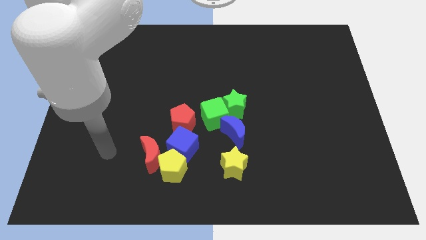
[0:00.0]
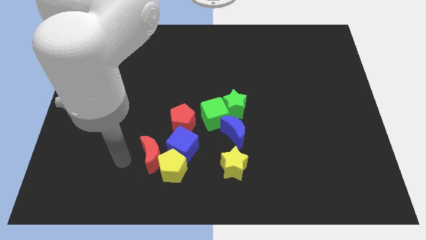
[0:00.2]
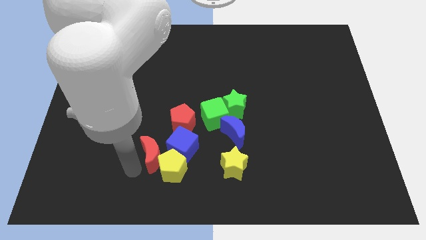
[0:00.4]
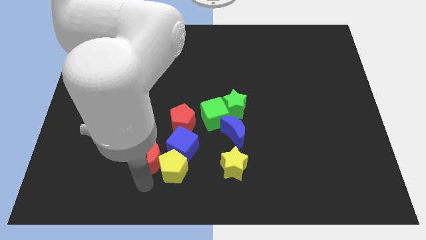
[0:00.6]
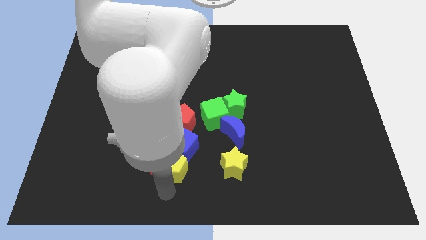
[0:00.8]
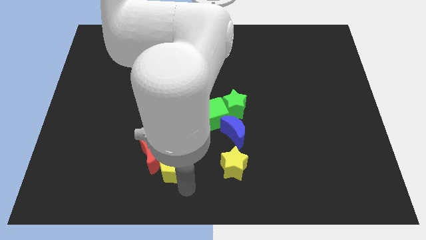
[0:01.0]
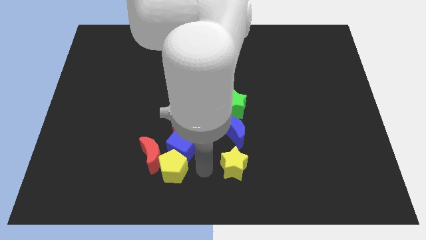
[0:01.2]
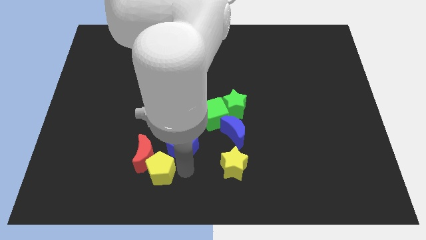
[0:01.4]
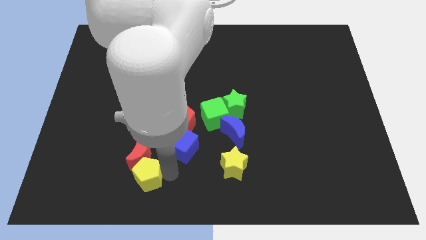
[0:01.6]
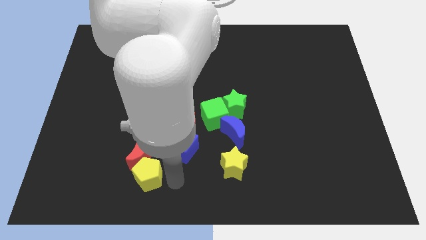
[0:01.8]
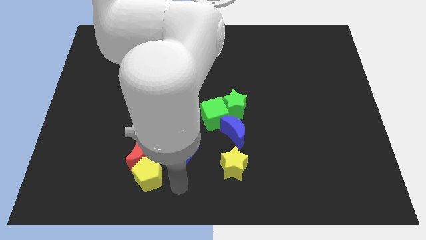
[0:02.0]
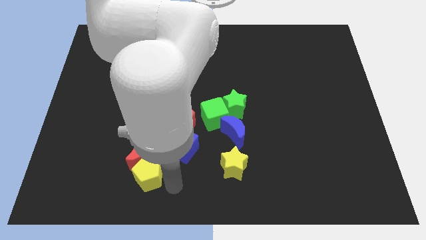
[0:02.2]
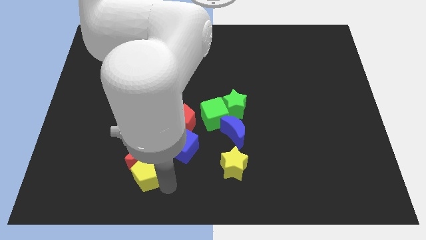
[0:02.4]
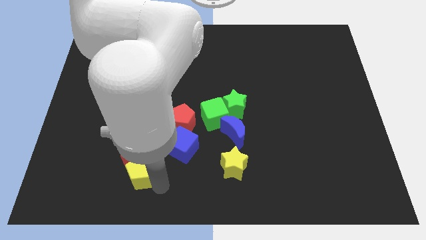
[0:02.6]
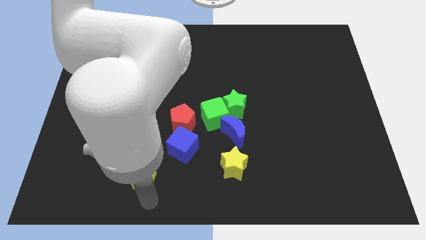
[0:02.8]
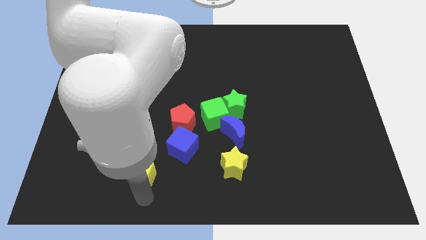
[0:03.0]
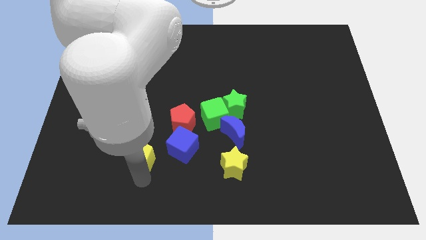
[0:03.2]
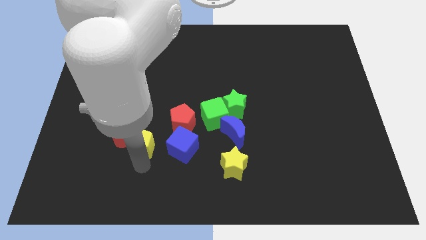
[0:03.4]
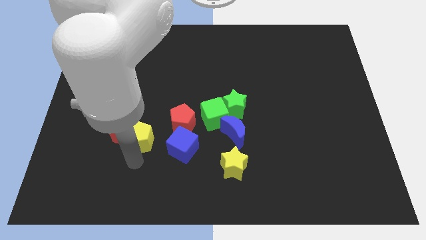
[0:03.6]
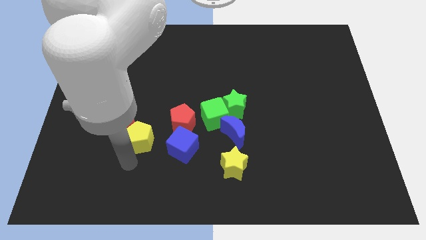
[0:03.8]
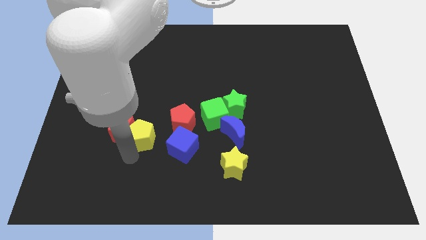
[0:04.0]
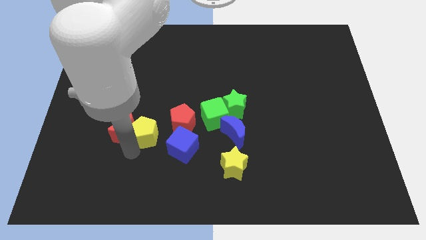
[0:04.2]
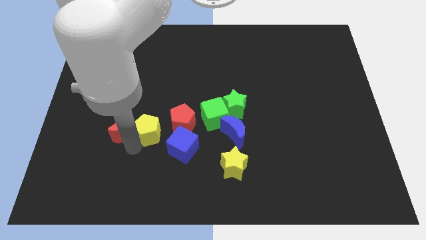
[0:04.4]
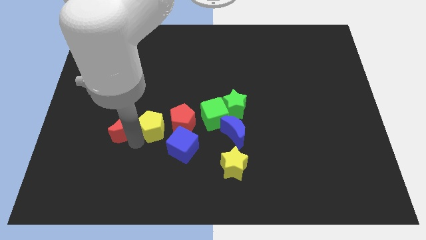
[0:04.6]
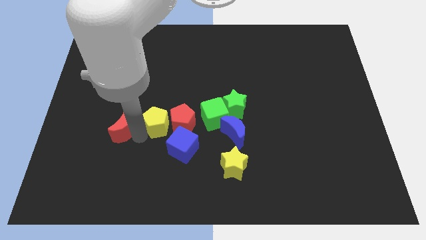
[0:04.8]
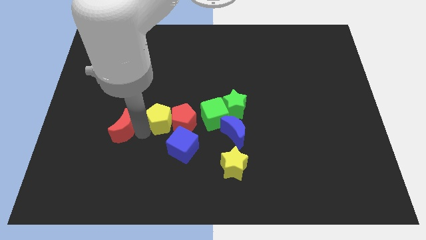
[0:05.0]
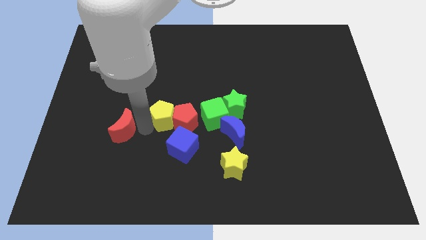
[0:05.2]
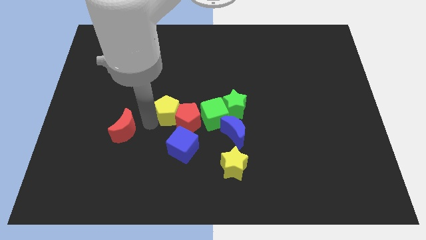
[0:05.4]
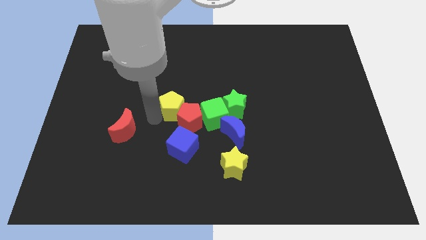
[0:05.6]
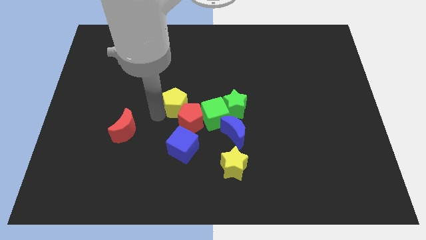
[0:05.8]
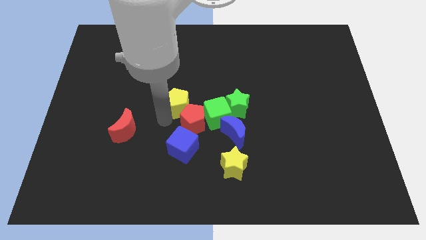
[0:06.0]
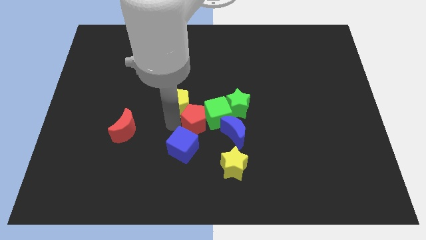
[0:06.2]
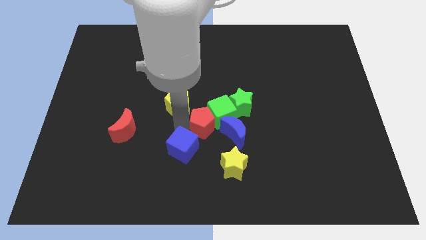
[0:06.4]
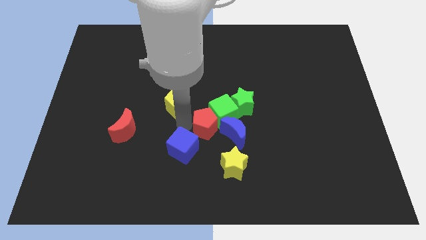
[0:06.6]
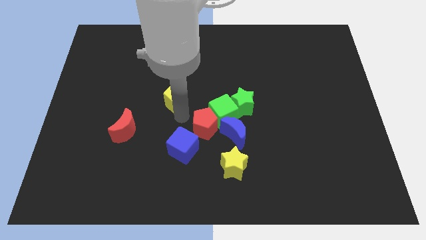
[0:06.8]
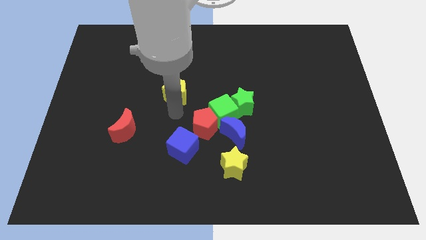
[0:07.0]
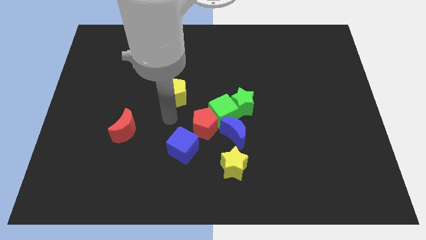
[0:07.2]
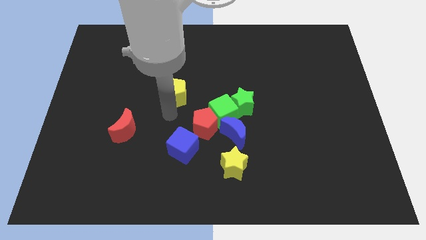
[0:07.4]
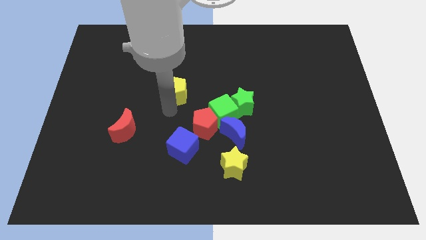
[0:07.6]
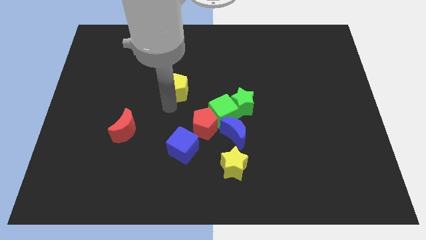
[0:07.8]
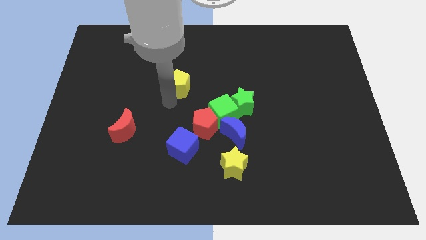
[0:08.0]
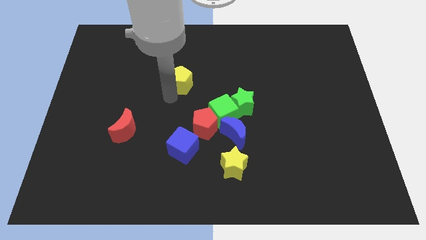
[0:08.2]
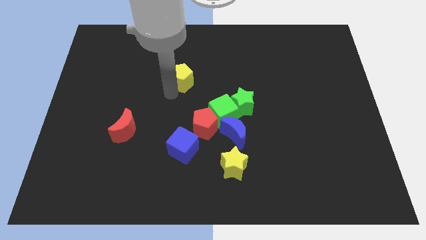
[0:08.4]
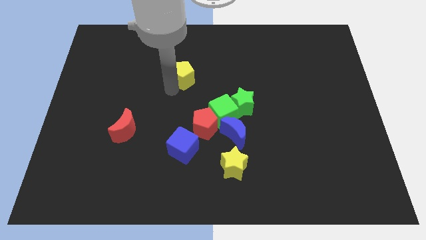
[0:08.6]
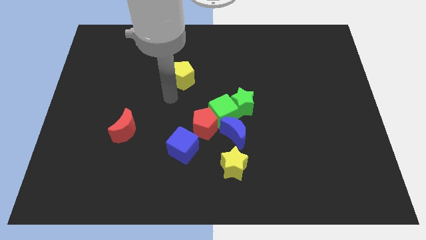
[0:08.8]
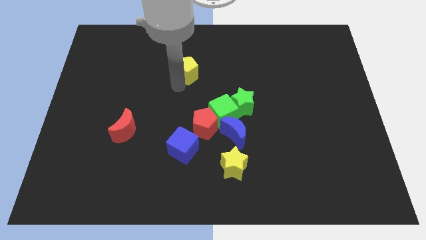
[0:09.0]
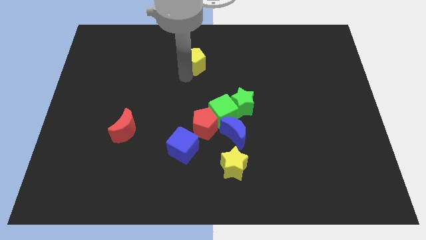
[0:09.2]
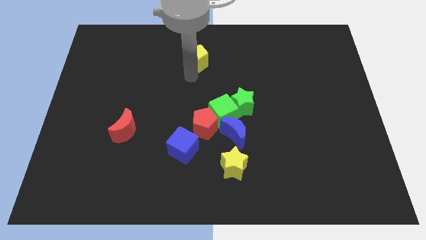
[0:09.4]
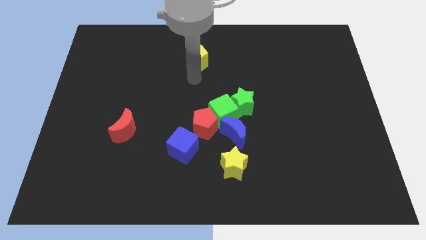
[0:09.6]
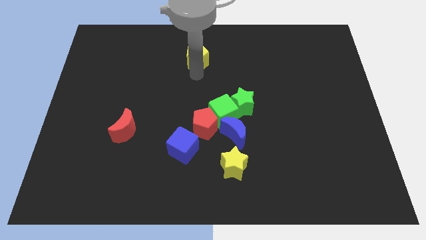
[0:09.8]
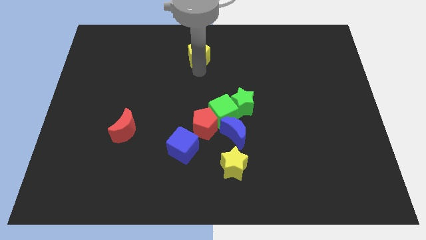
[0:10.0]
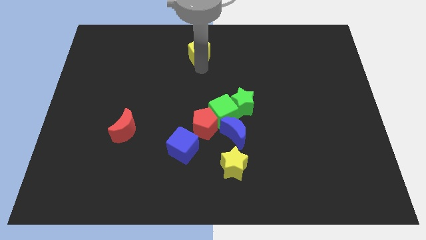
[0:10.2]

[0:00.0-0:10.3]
move the yellow pentagon to the top

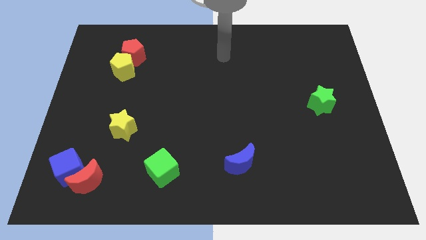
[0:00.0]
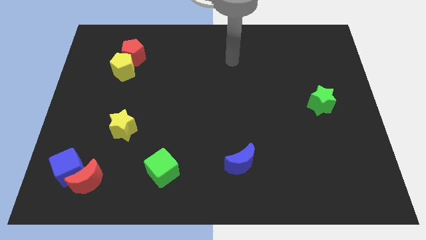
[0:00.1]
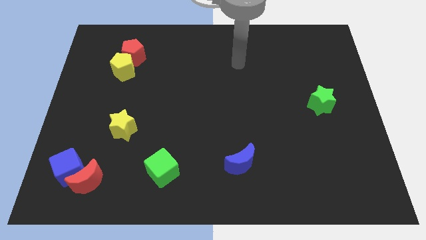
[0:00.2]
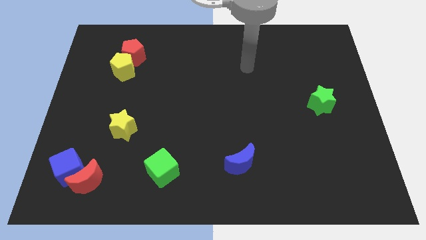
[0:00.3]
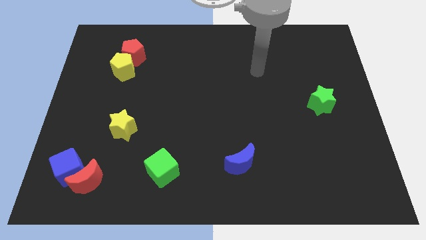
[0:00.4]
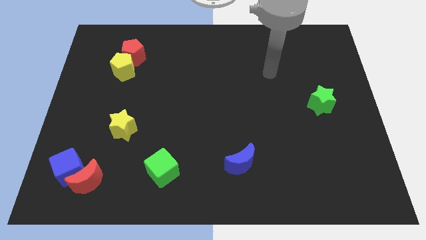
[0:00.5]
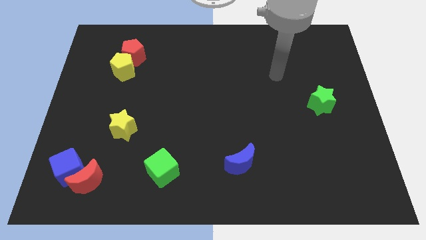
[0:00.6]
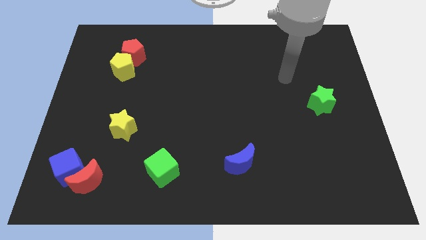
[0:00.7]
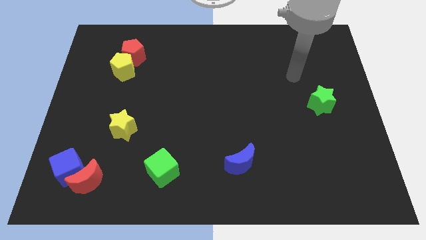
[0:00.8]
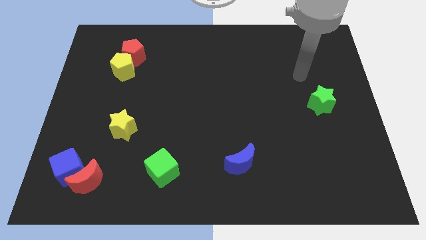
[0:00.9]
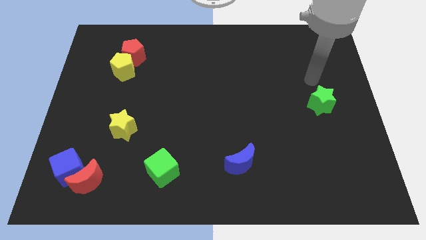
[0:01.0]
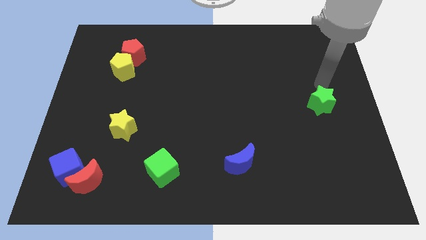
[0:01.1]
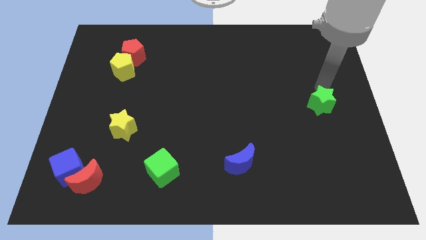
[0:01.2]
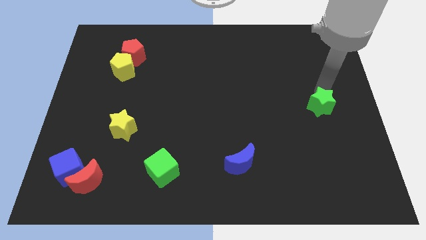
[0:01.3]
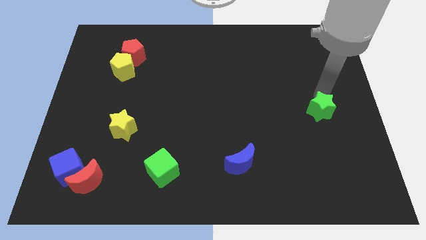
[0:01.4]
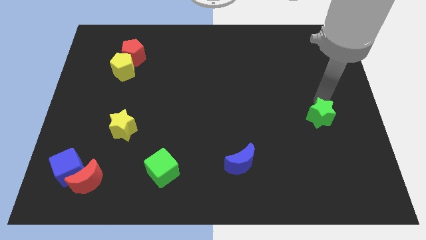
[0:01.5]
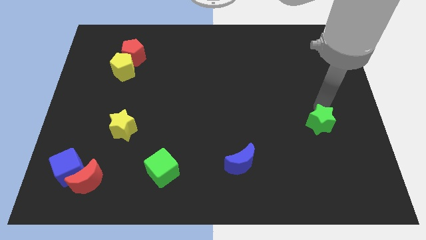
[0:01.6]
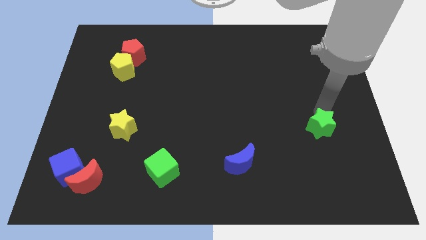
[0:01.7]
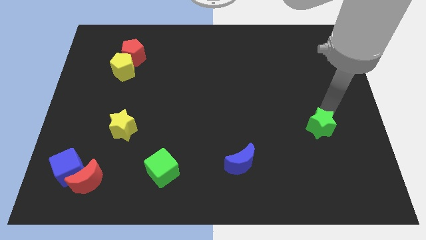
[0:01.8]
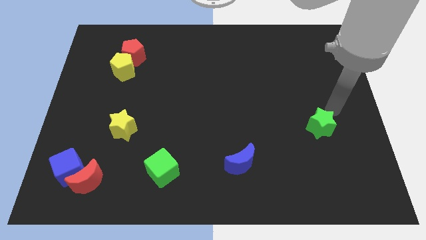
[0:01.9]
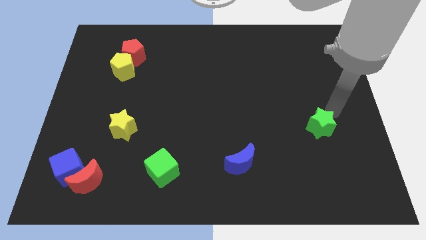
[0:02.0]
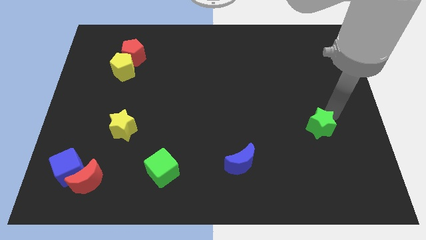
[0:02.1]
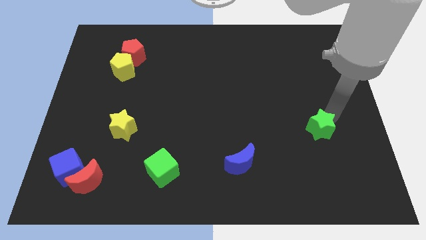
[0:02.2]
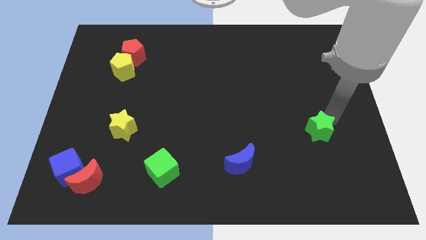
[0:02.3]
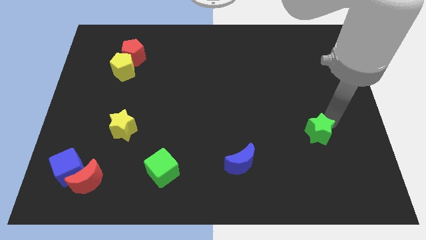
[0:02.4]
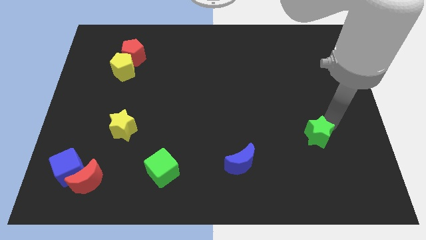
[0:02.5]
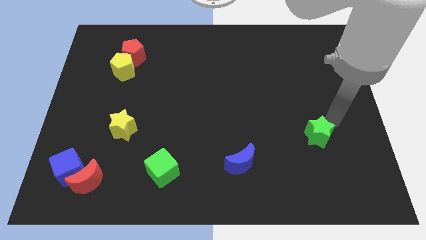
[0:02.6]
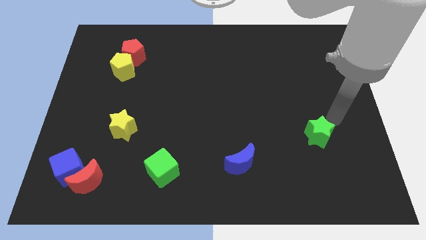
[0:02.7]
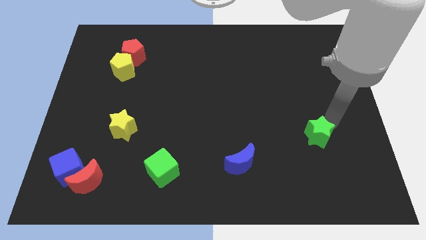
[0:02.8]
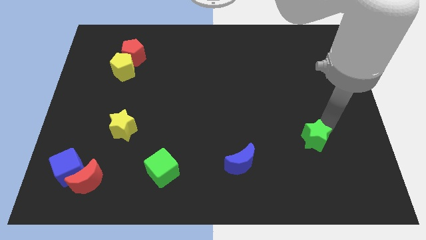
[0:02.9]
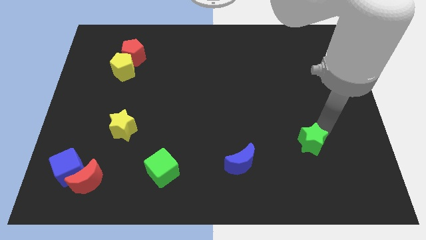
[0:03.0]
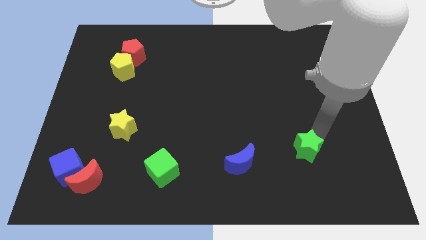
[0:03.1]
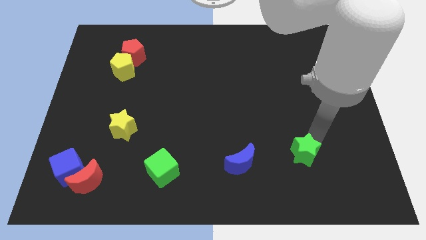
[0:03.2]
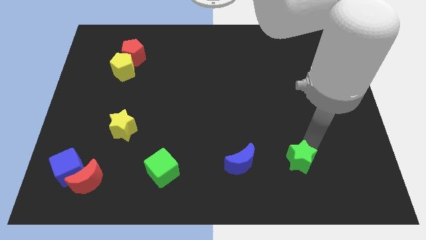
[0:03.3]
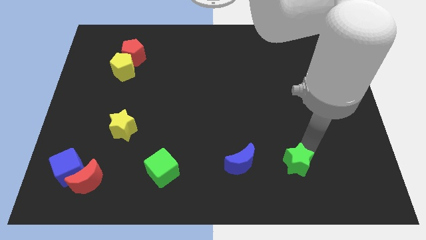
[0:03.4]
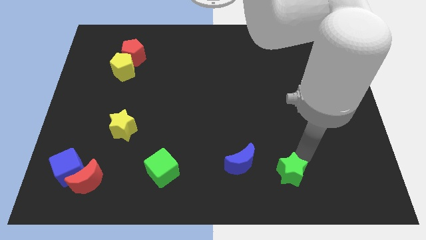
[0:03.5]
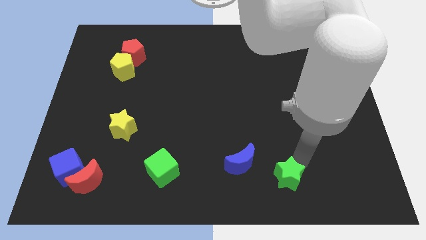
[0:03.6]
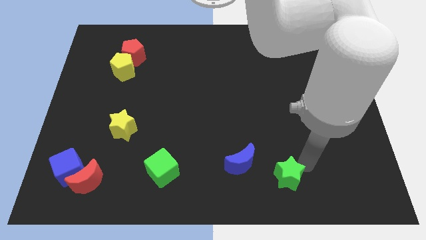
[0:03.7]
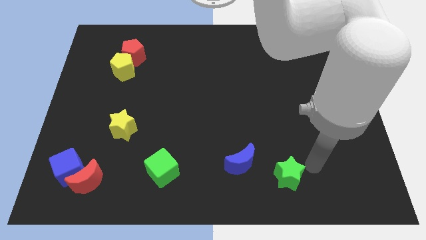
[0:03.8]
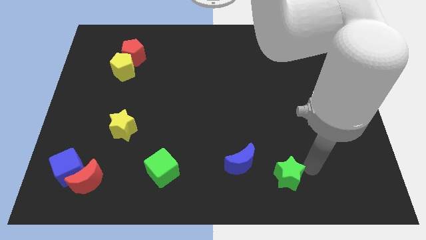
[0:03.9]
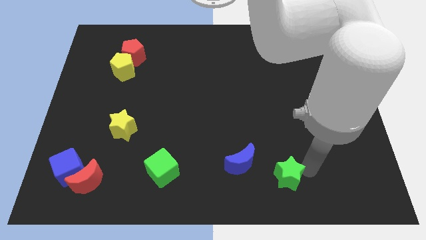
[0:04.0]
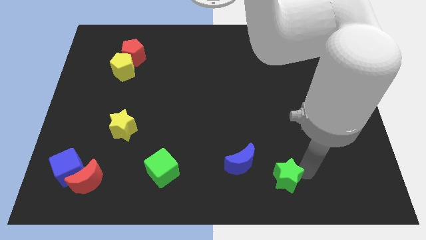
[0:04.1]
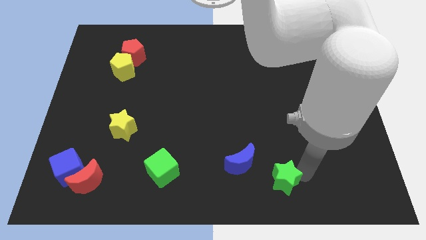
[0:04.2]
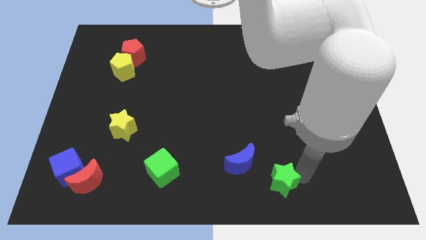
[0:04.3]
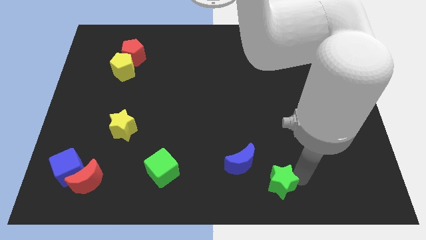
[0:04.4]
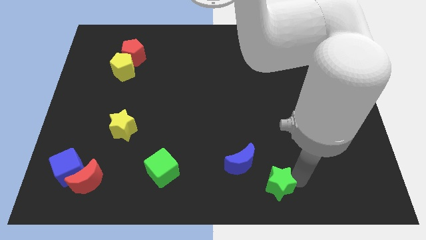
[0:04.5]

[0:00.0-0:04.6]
push the green star to the bottom
